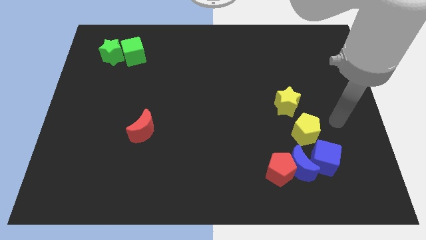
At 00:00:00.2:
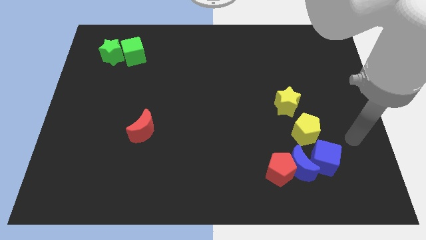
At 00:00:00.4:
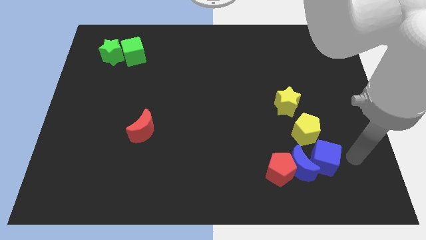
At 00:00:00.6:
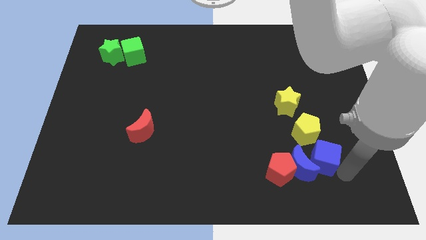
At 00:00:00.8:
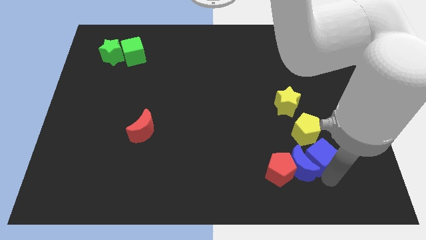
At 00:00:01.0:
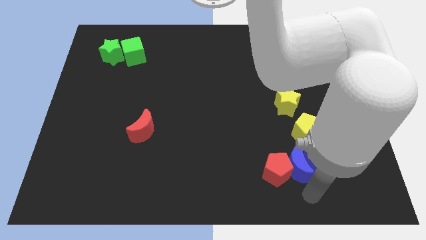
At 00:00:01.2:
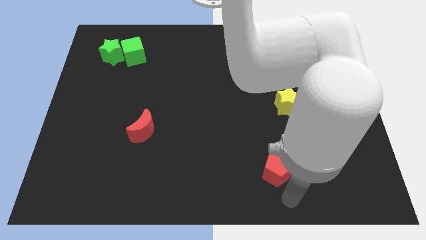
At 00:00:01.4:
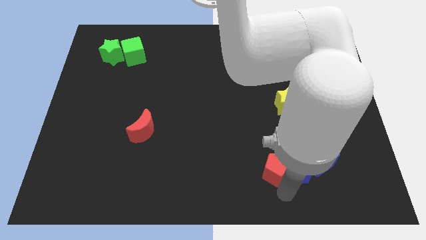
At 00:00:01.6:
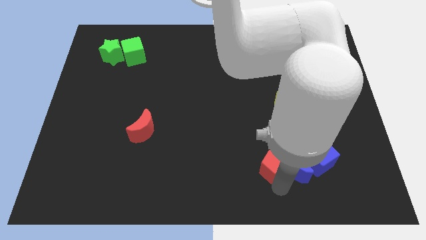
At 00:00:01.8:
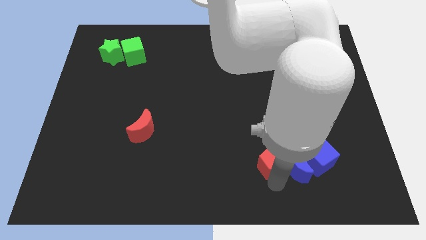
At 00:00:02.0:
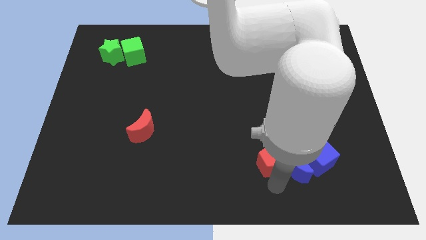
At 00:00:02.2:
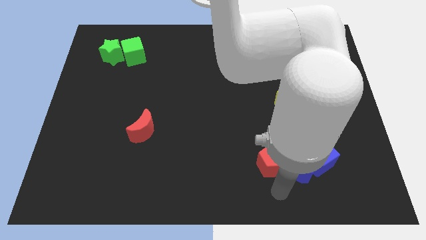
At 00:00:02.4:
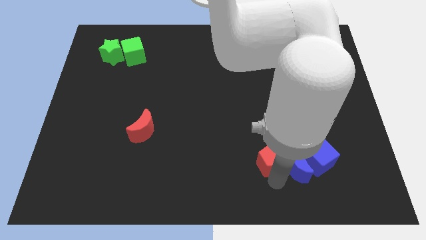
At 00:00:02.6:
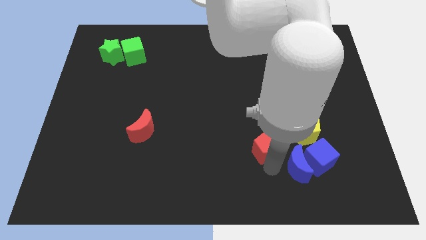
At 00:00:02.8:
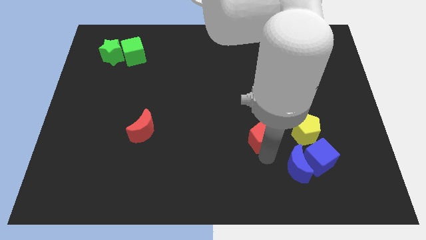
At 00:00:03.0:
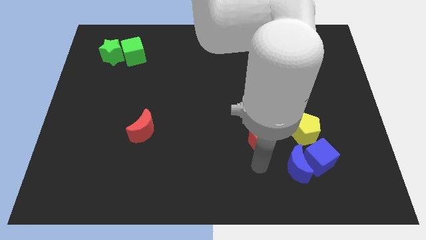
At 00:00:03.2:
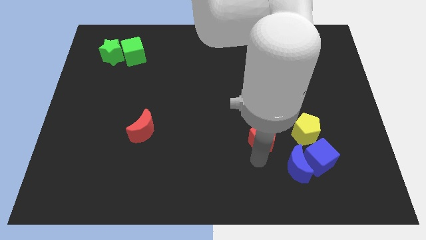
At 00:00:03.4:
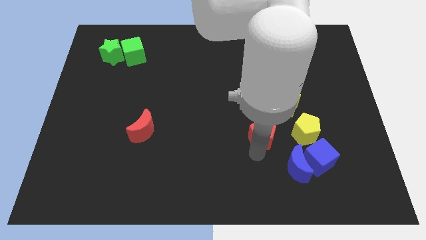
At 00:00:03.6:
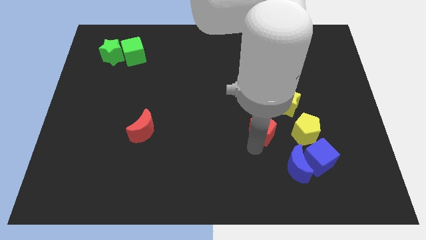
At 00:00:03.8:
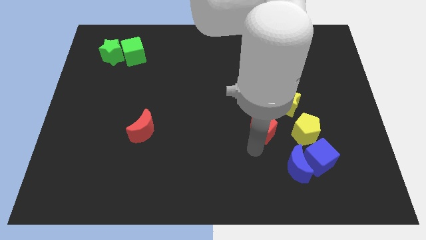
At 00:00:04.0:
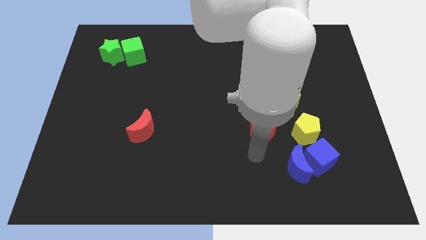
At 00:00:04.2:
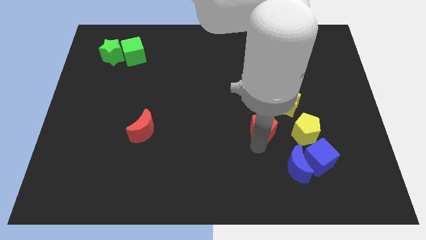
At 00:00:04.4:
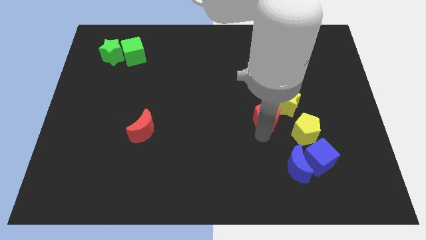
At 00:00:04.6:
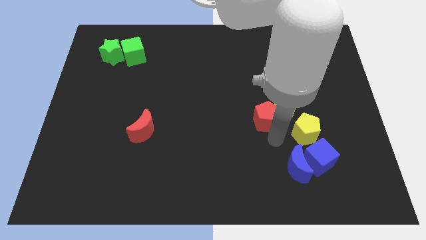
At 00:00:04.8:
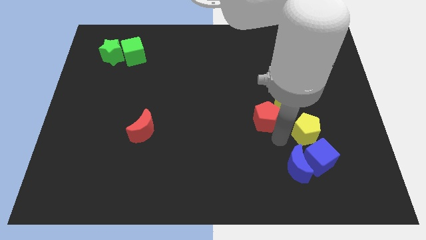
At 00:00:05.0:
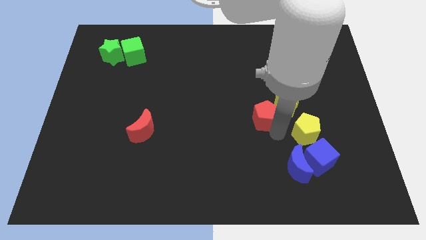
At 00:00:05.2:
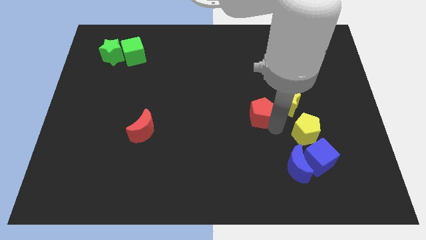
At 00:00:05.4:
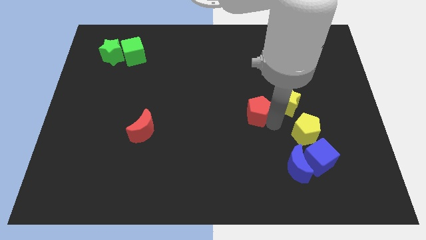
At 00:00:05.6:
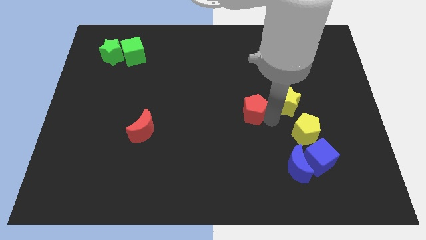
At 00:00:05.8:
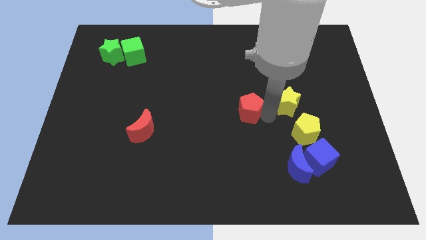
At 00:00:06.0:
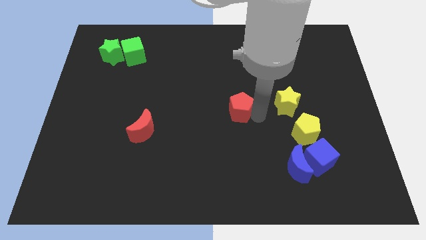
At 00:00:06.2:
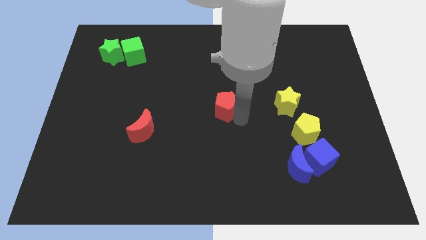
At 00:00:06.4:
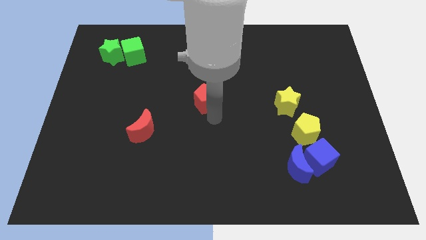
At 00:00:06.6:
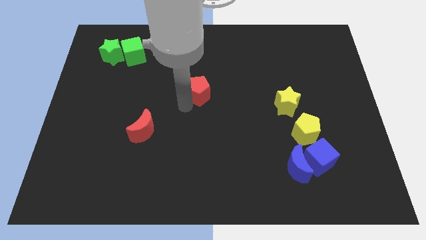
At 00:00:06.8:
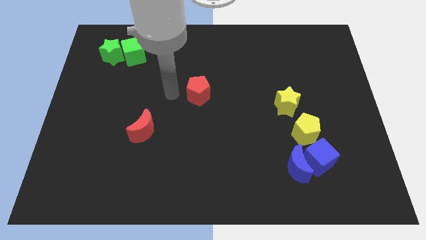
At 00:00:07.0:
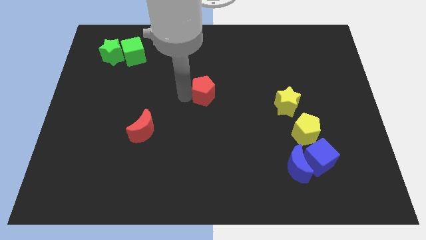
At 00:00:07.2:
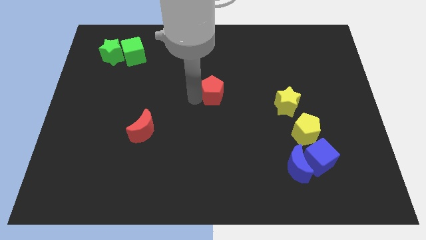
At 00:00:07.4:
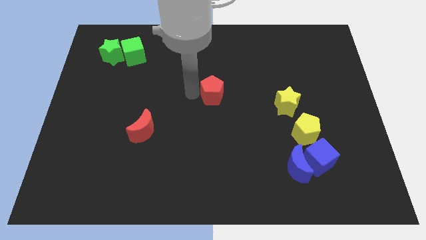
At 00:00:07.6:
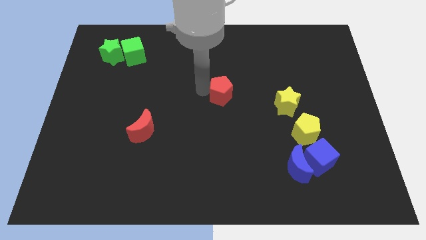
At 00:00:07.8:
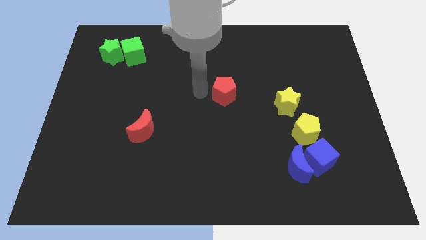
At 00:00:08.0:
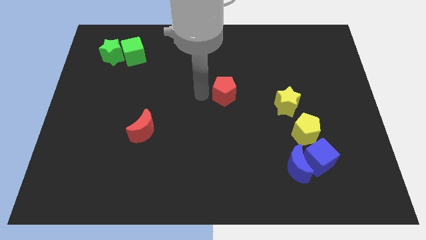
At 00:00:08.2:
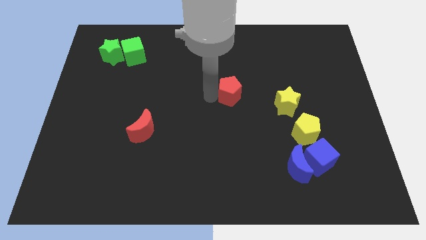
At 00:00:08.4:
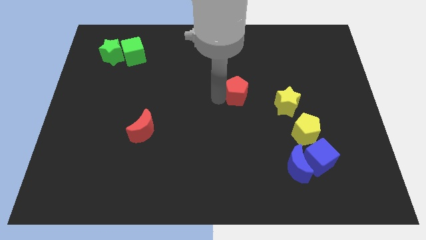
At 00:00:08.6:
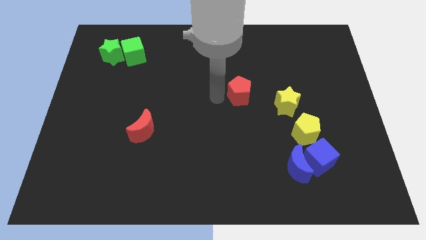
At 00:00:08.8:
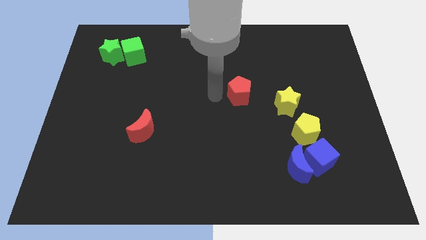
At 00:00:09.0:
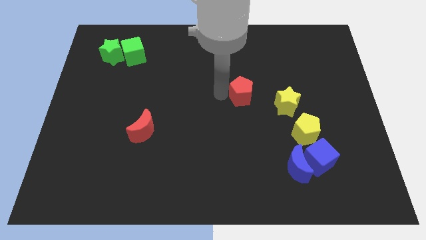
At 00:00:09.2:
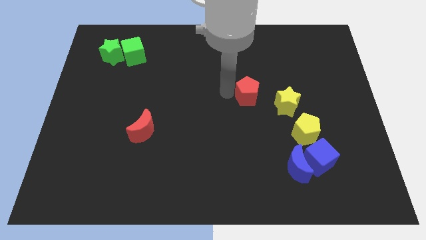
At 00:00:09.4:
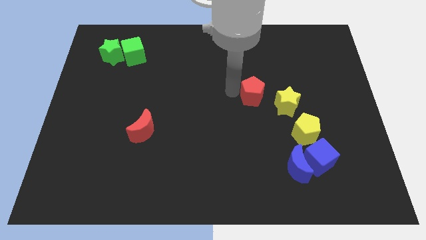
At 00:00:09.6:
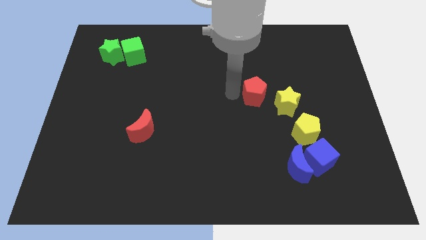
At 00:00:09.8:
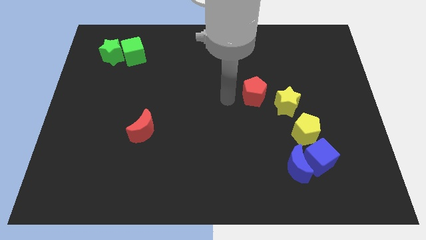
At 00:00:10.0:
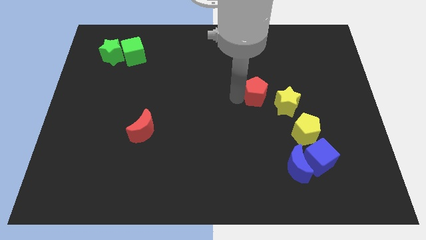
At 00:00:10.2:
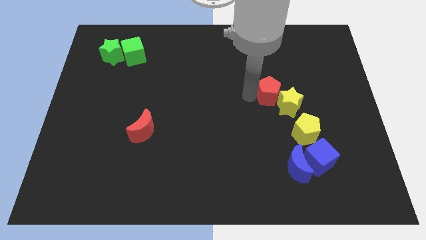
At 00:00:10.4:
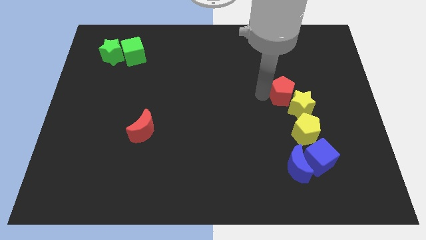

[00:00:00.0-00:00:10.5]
slide the red pentagon to the top side of the yellow pentagon

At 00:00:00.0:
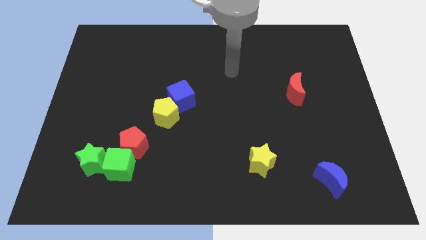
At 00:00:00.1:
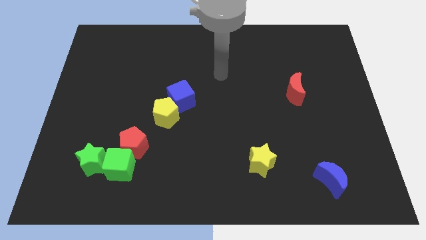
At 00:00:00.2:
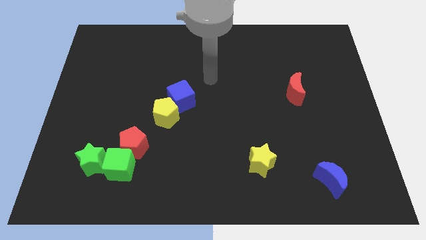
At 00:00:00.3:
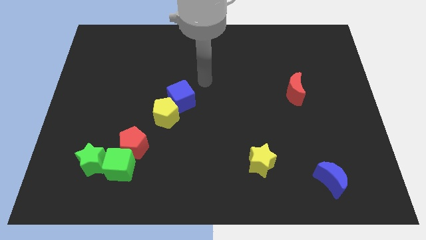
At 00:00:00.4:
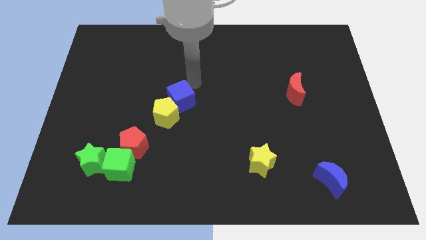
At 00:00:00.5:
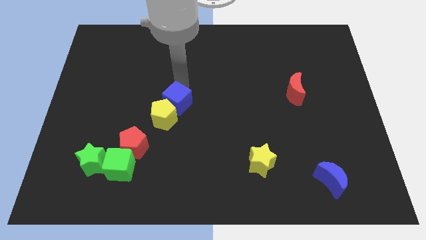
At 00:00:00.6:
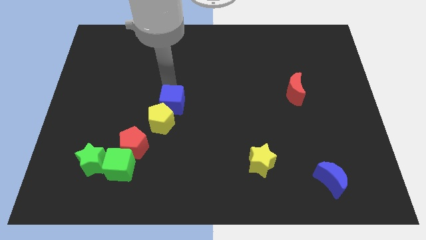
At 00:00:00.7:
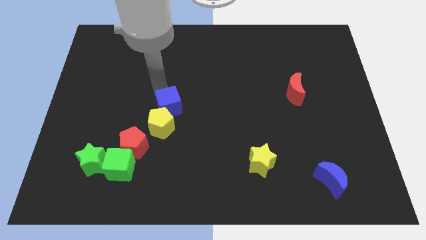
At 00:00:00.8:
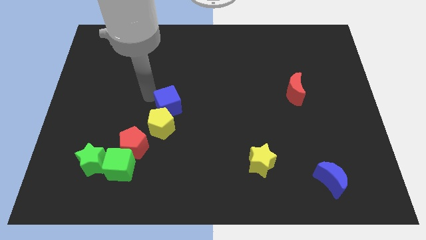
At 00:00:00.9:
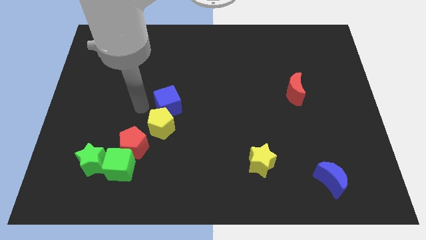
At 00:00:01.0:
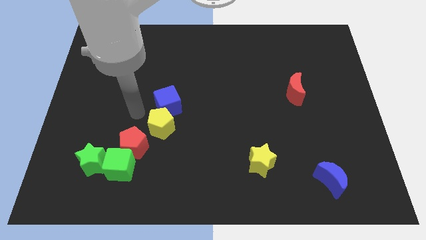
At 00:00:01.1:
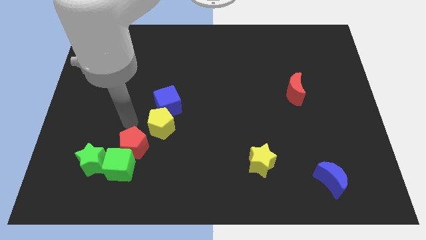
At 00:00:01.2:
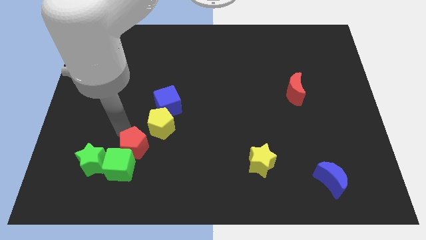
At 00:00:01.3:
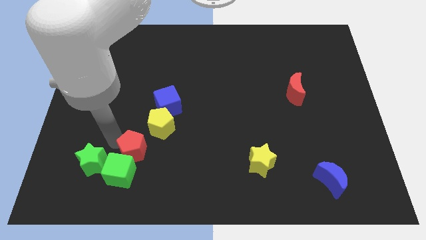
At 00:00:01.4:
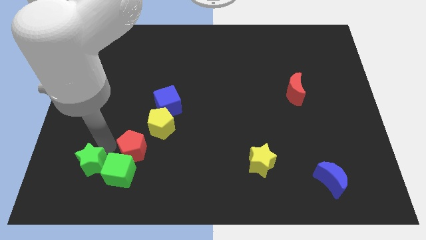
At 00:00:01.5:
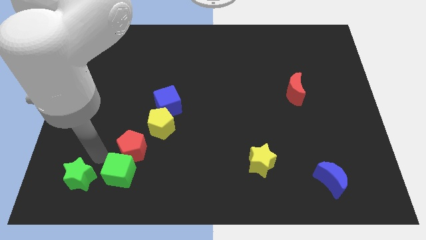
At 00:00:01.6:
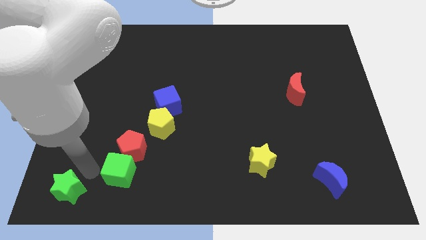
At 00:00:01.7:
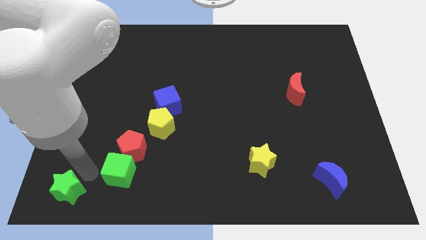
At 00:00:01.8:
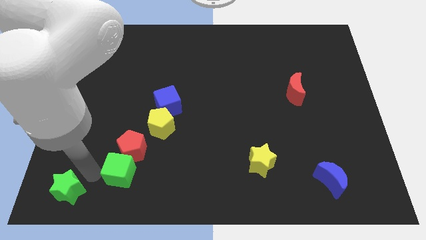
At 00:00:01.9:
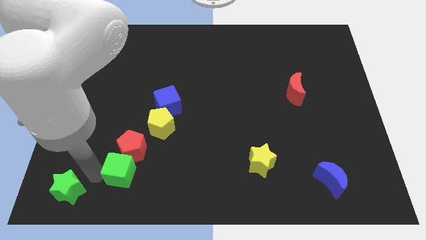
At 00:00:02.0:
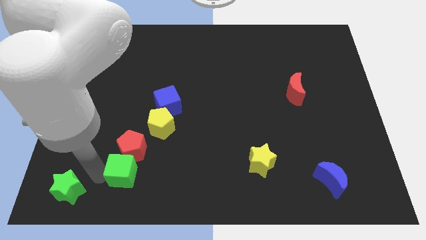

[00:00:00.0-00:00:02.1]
slide the green cube to the bottom right side of the red pentagon
